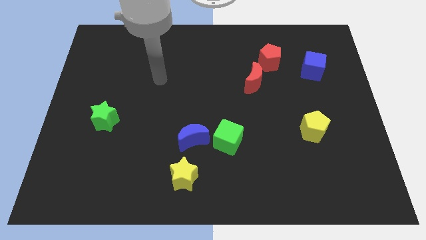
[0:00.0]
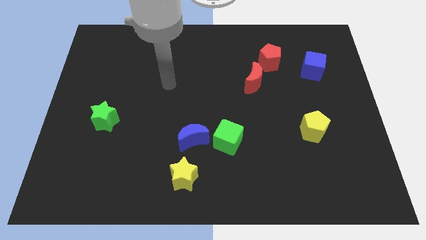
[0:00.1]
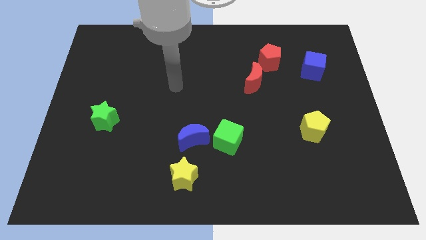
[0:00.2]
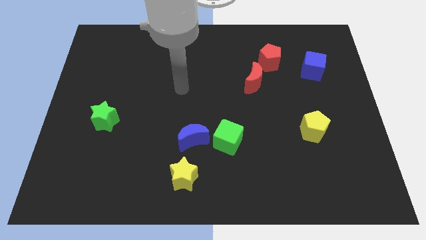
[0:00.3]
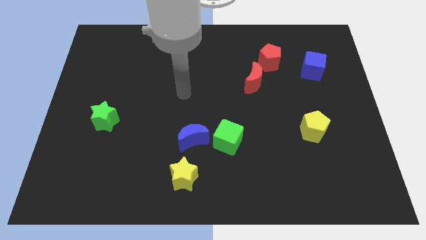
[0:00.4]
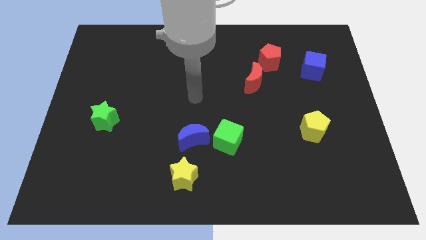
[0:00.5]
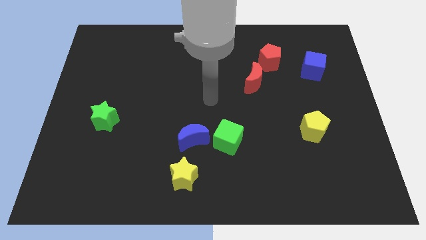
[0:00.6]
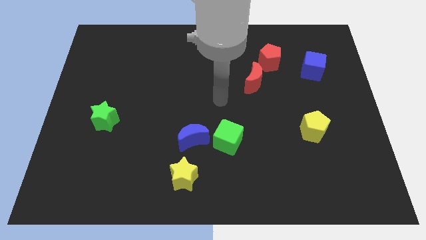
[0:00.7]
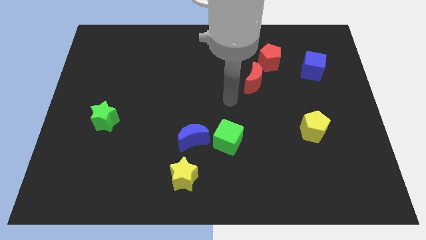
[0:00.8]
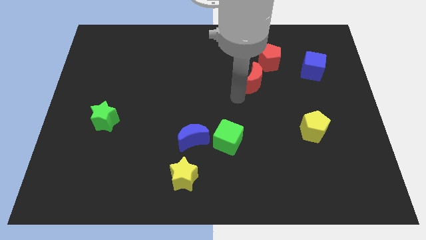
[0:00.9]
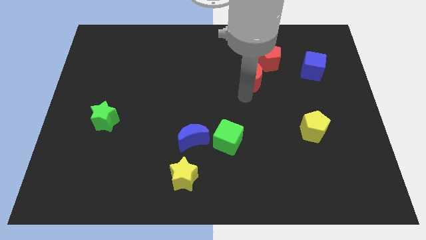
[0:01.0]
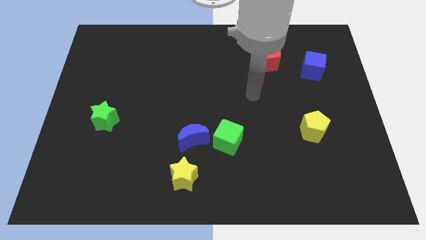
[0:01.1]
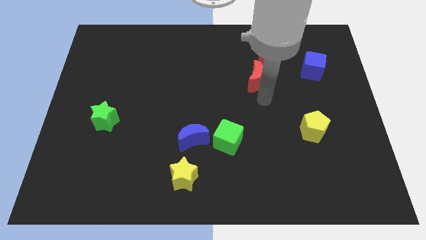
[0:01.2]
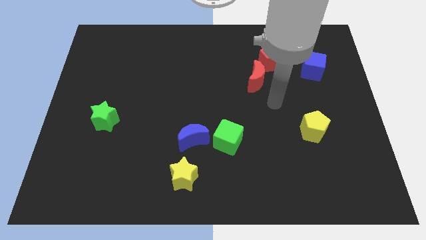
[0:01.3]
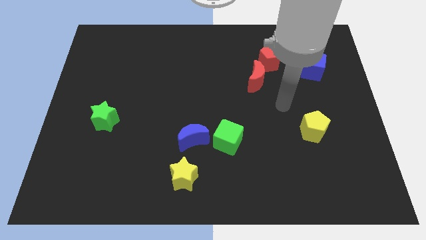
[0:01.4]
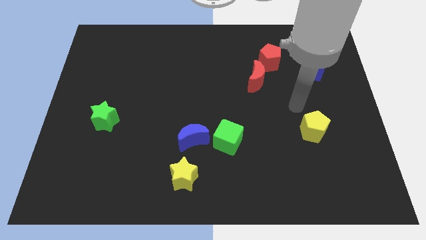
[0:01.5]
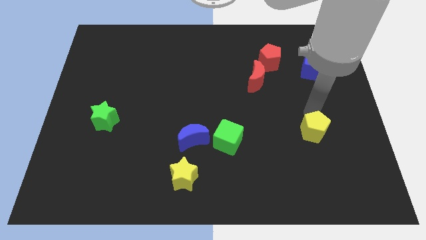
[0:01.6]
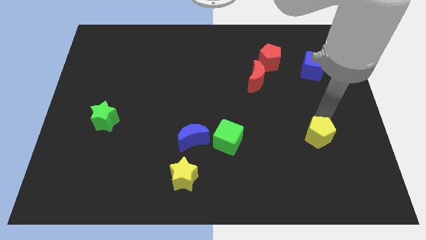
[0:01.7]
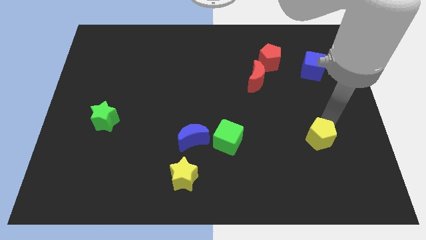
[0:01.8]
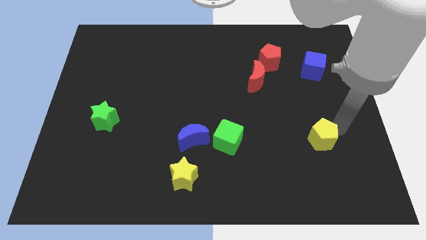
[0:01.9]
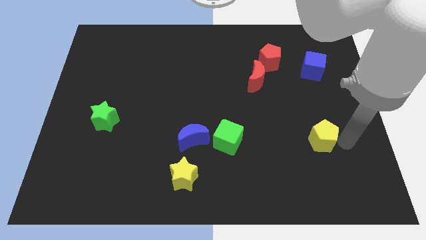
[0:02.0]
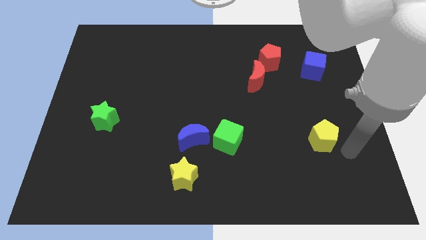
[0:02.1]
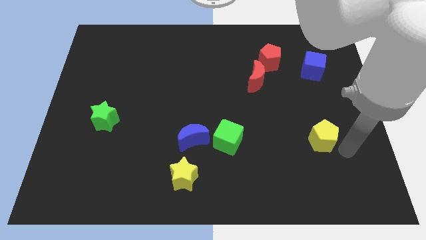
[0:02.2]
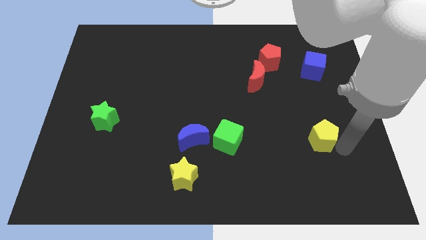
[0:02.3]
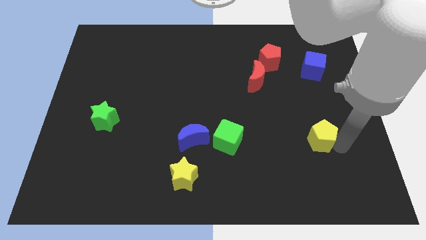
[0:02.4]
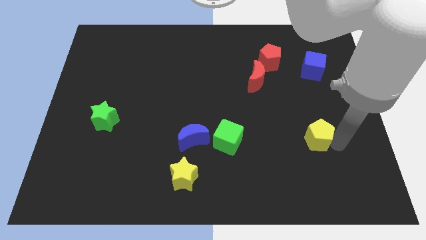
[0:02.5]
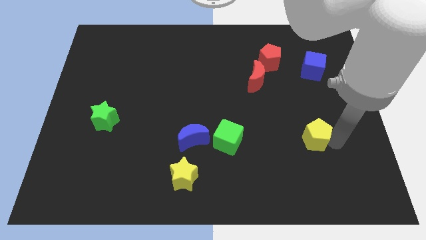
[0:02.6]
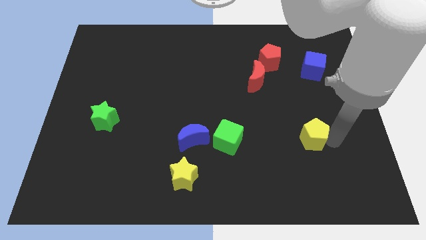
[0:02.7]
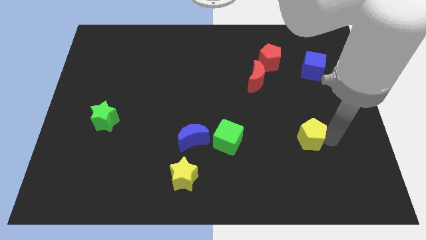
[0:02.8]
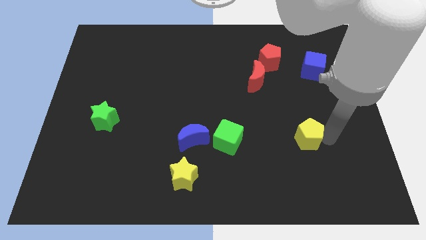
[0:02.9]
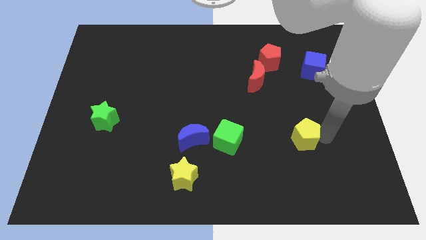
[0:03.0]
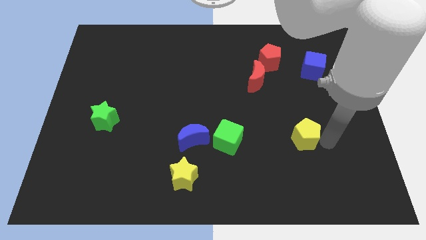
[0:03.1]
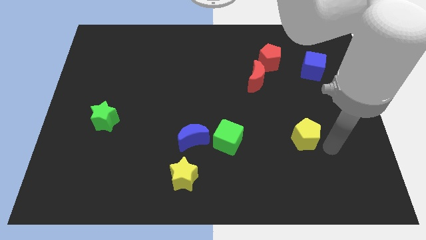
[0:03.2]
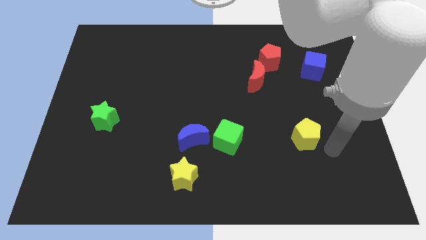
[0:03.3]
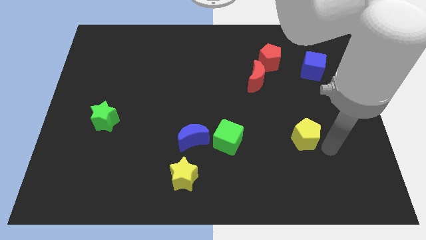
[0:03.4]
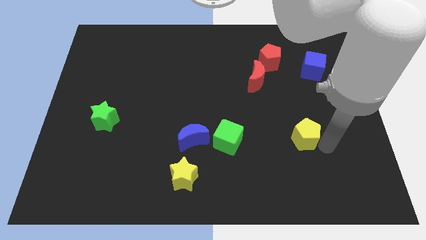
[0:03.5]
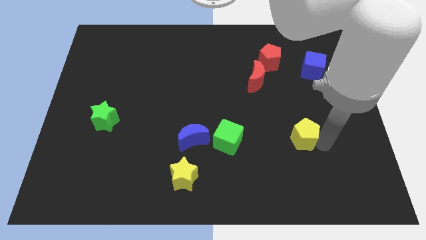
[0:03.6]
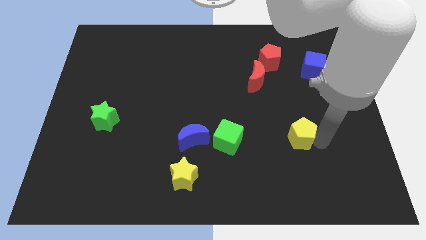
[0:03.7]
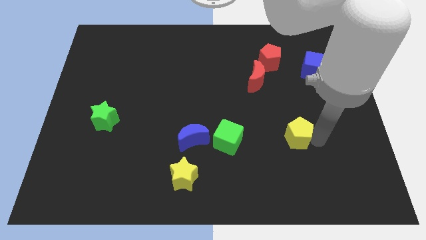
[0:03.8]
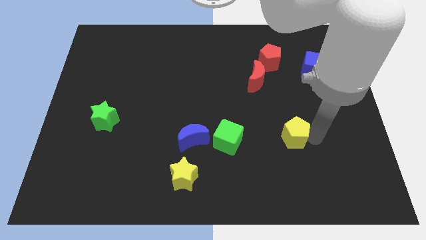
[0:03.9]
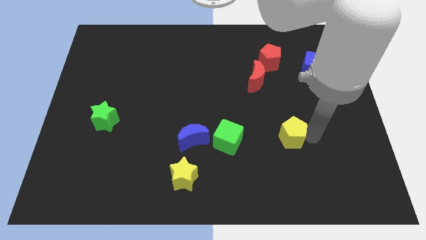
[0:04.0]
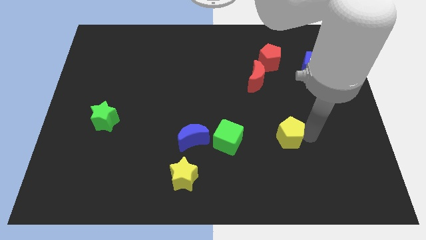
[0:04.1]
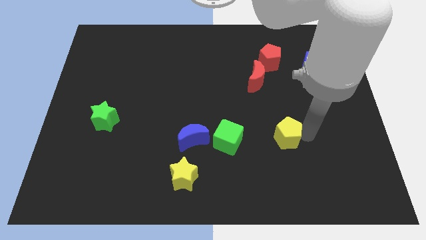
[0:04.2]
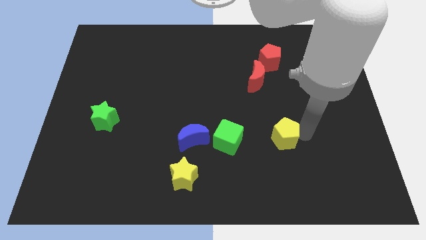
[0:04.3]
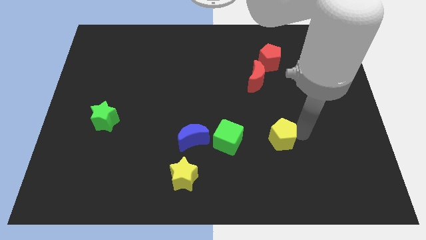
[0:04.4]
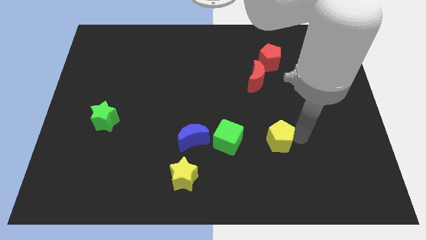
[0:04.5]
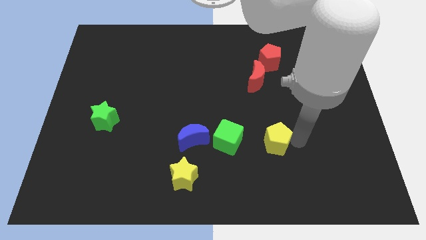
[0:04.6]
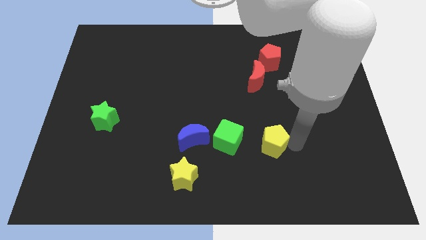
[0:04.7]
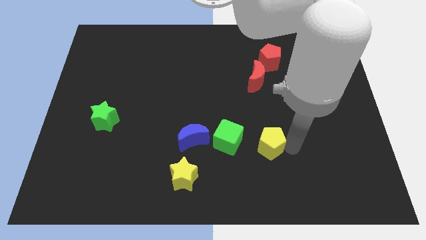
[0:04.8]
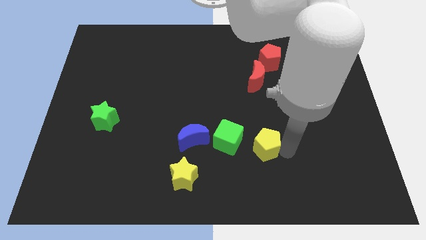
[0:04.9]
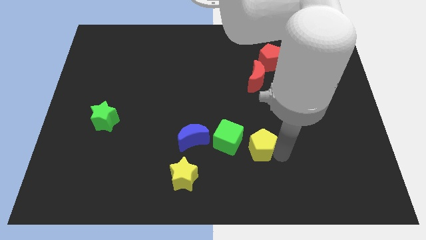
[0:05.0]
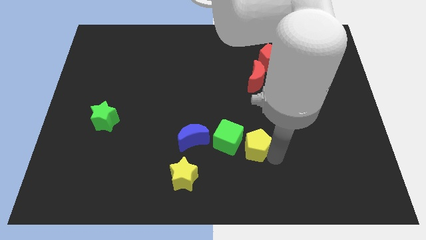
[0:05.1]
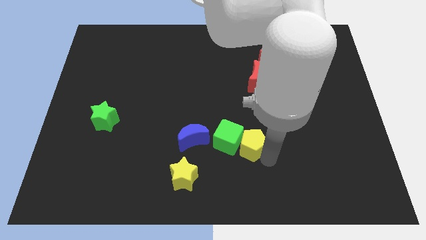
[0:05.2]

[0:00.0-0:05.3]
push the yellow pentagon diagonally up and to the right of the green cube

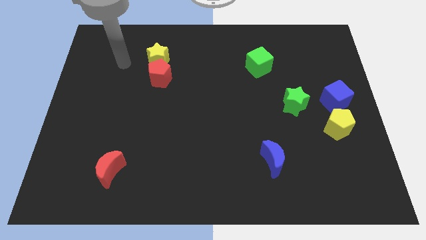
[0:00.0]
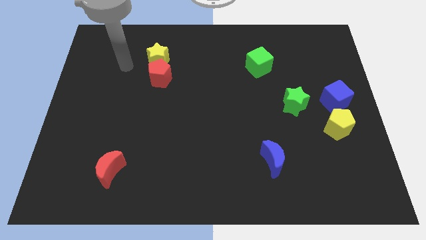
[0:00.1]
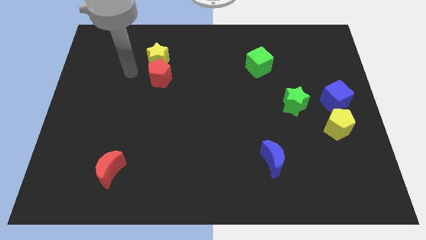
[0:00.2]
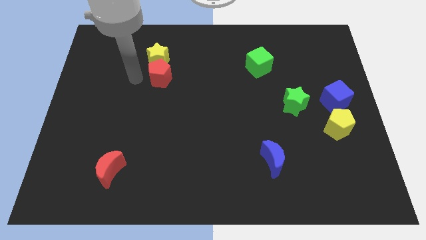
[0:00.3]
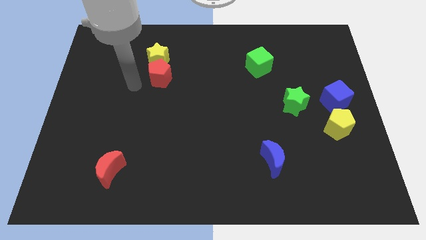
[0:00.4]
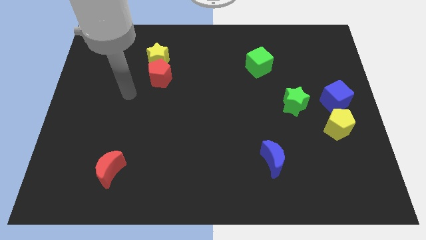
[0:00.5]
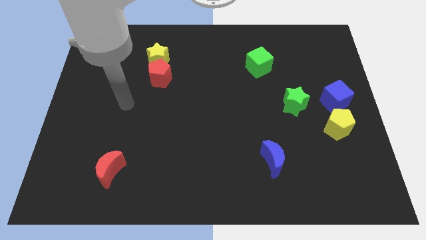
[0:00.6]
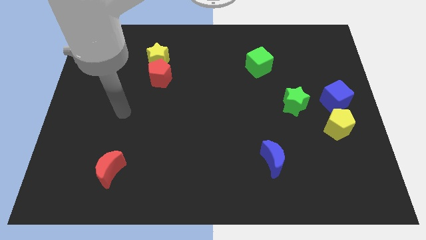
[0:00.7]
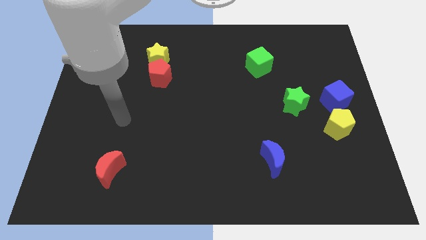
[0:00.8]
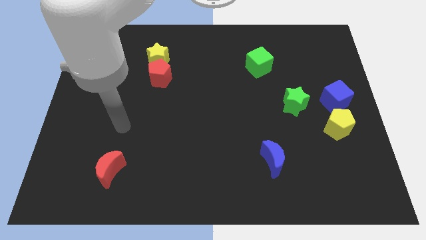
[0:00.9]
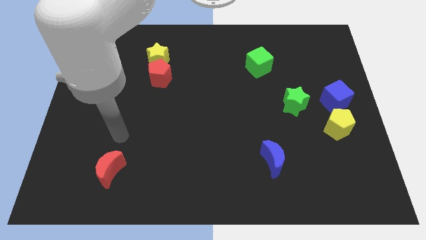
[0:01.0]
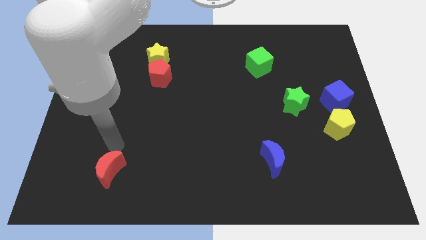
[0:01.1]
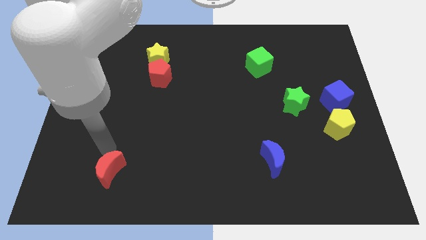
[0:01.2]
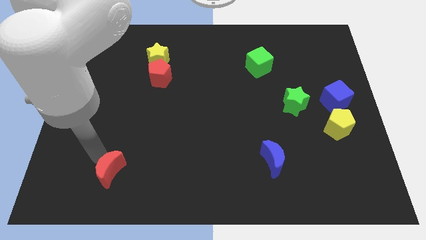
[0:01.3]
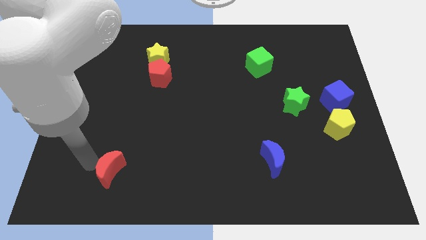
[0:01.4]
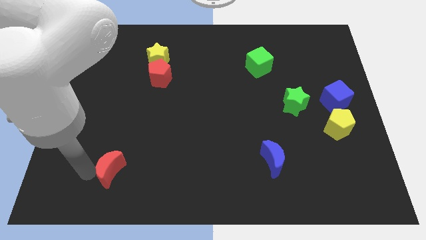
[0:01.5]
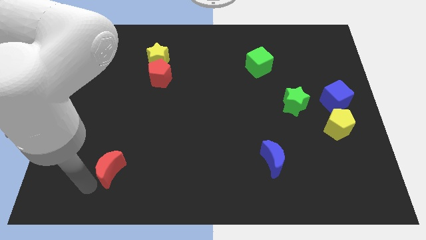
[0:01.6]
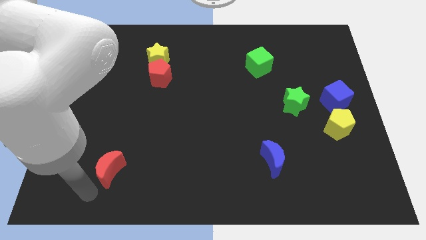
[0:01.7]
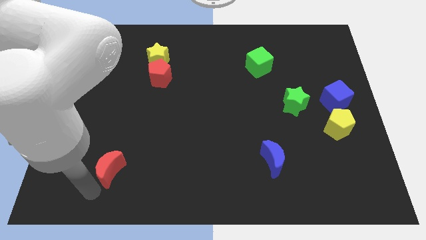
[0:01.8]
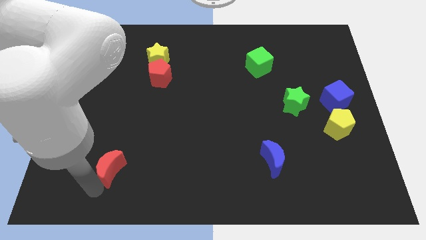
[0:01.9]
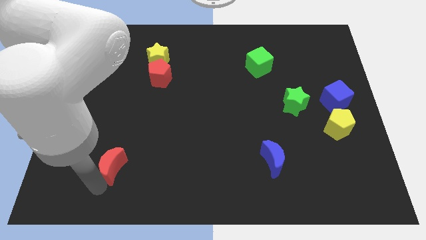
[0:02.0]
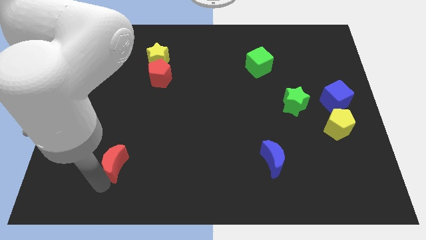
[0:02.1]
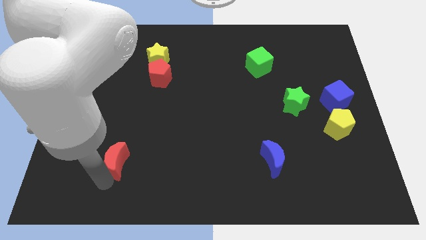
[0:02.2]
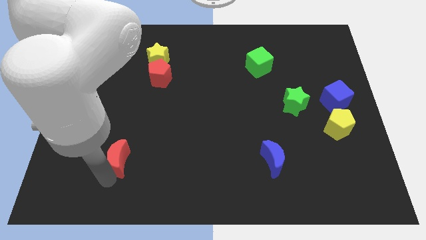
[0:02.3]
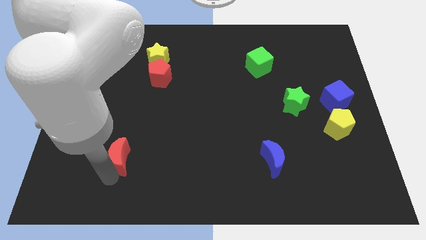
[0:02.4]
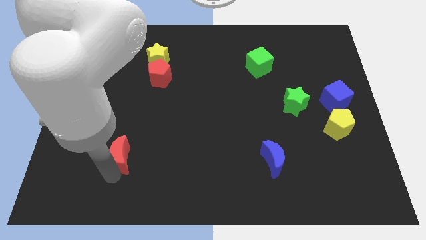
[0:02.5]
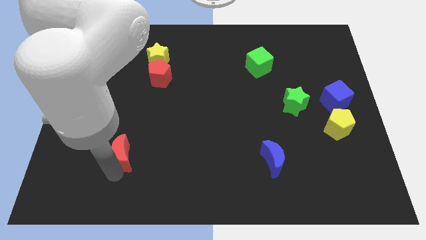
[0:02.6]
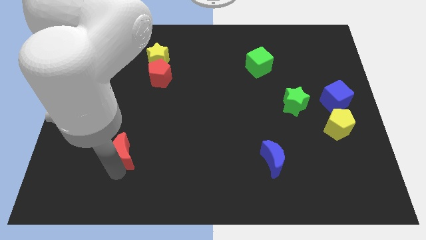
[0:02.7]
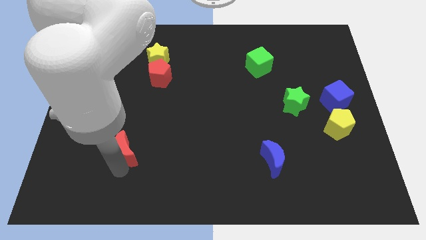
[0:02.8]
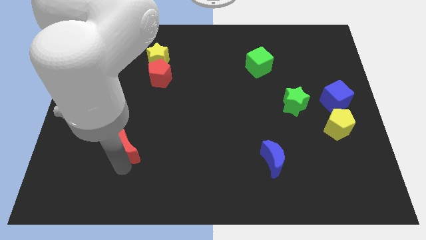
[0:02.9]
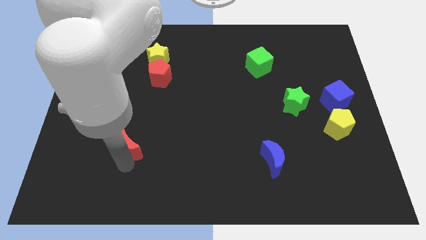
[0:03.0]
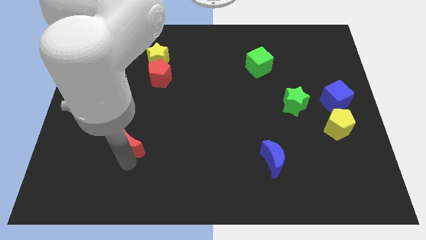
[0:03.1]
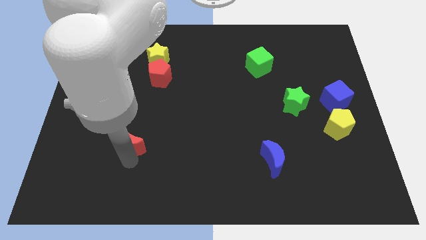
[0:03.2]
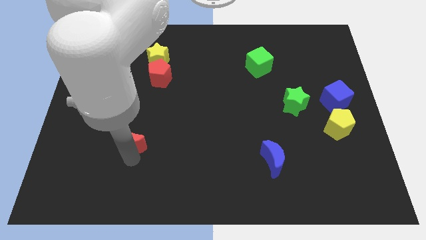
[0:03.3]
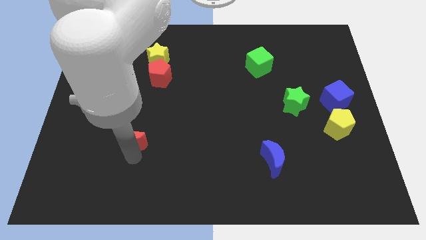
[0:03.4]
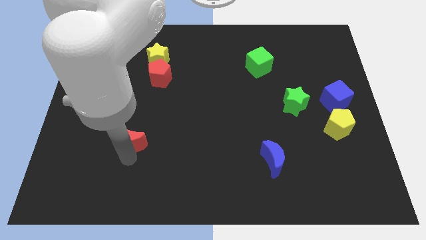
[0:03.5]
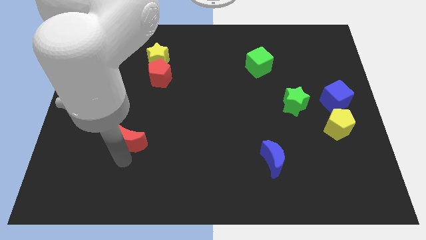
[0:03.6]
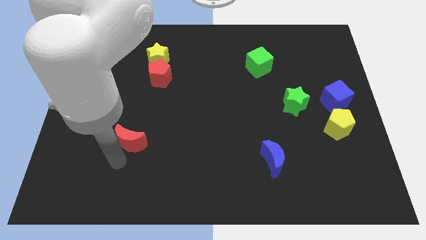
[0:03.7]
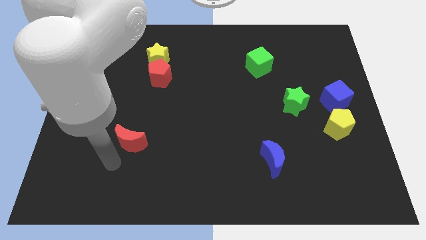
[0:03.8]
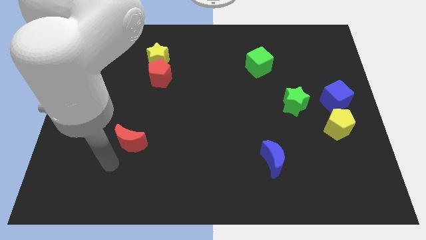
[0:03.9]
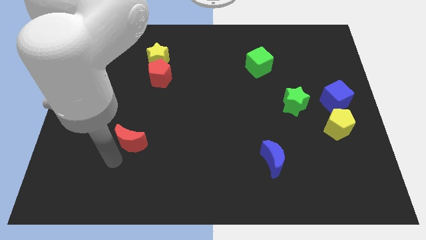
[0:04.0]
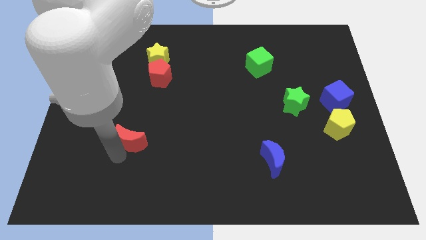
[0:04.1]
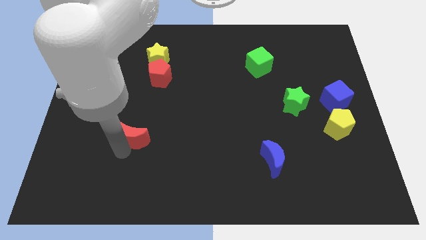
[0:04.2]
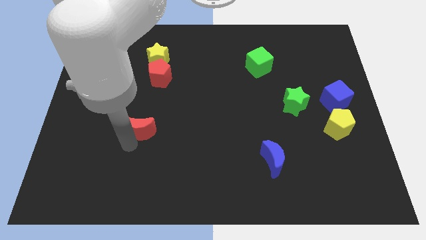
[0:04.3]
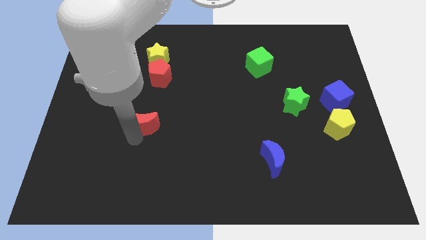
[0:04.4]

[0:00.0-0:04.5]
slide the red moon below the red pentagon
